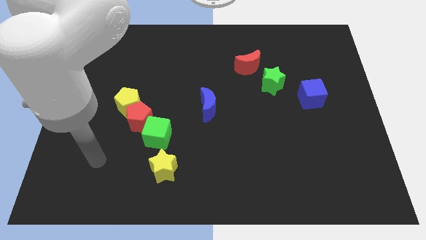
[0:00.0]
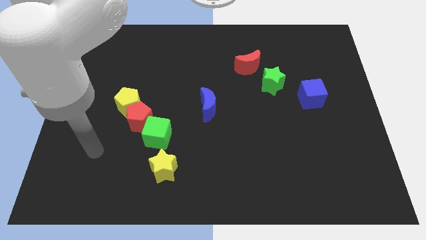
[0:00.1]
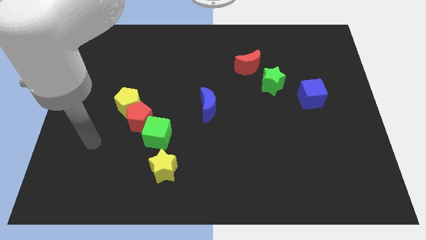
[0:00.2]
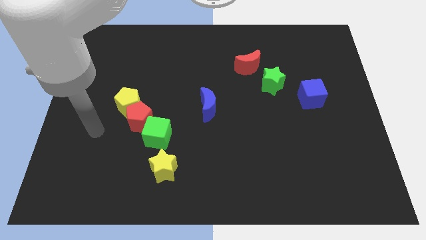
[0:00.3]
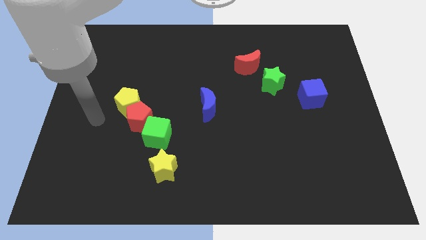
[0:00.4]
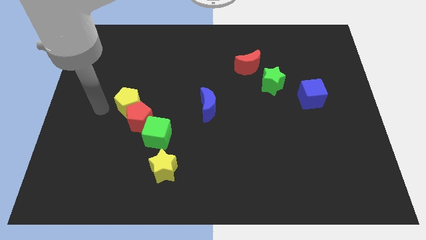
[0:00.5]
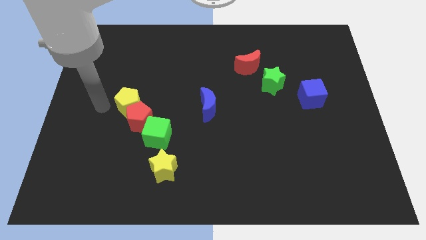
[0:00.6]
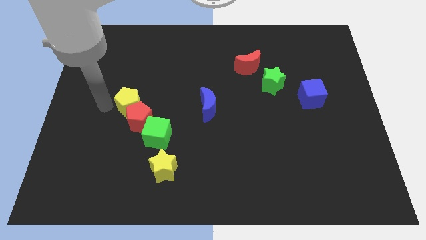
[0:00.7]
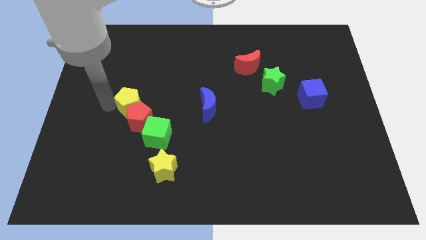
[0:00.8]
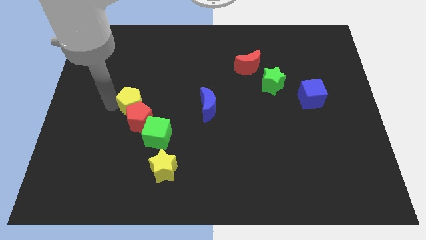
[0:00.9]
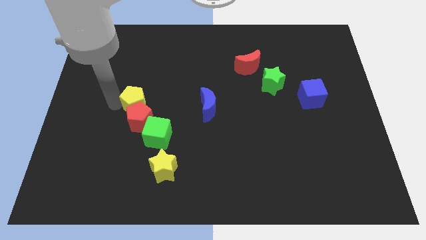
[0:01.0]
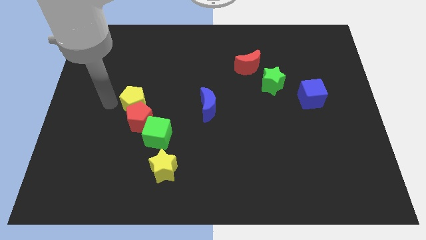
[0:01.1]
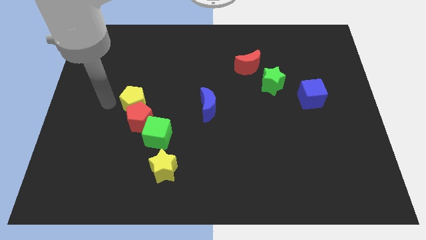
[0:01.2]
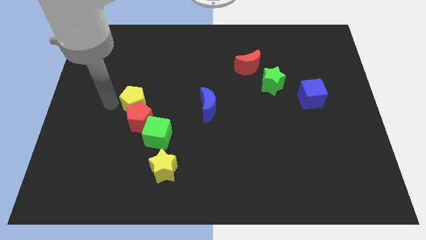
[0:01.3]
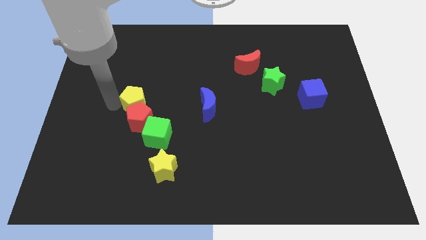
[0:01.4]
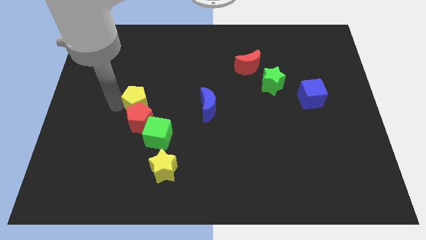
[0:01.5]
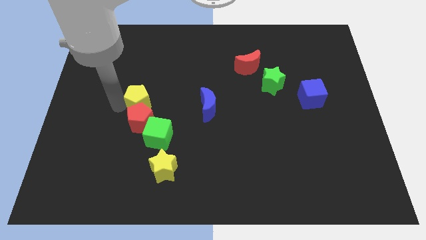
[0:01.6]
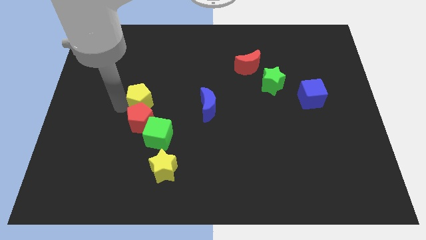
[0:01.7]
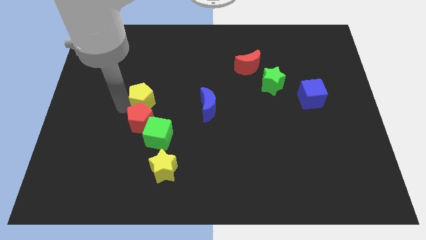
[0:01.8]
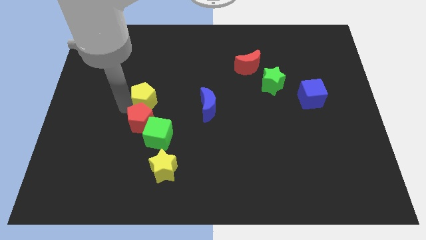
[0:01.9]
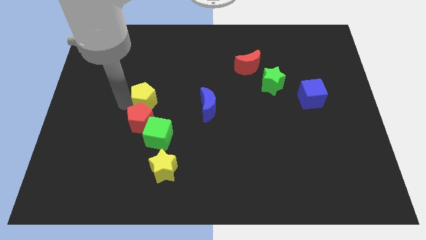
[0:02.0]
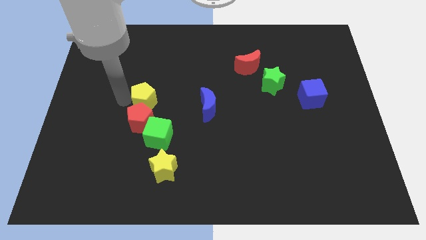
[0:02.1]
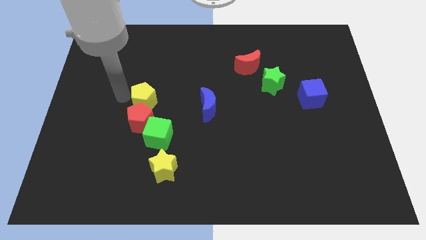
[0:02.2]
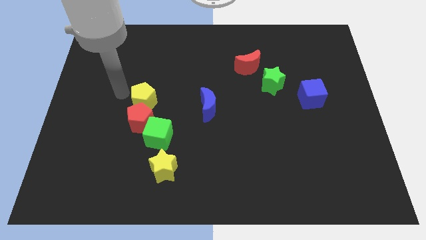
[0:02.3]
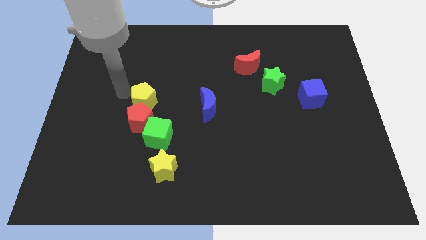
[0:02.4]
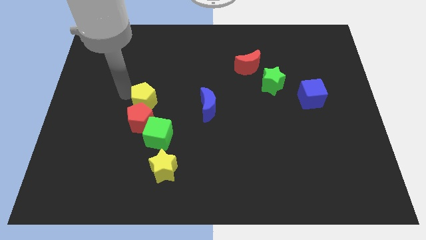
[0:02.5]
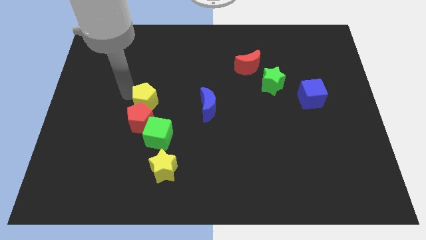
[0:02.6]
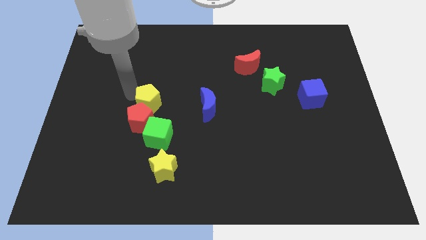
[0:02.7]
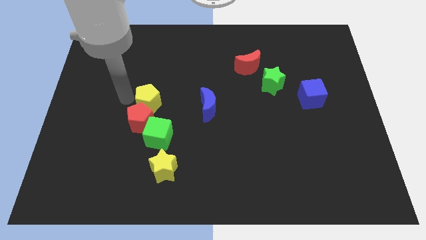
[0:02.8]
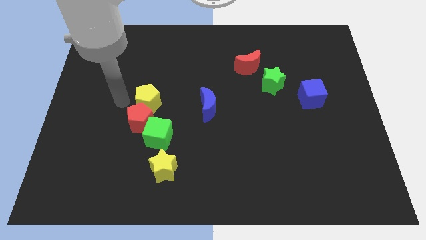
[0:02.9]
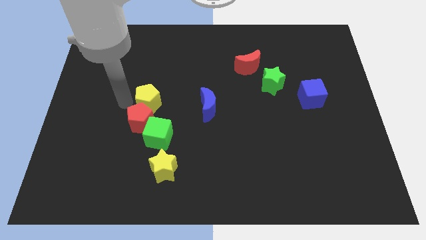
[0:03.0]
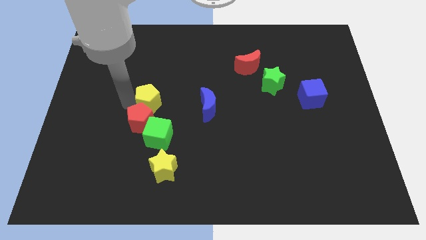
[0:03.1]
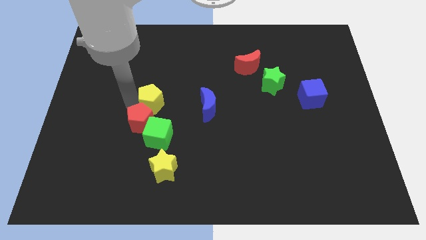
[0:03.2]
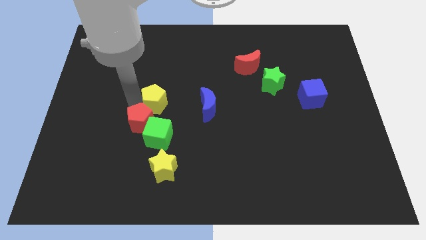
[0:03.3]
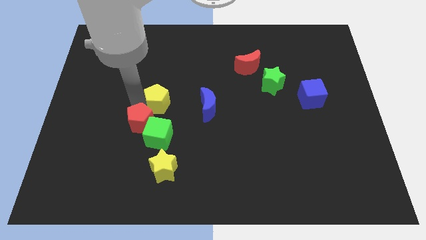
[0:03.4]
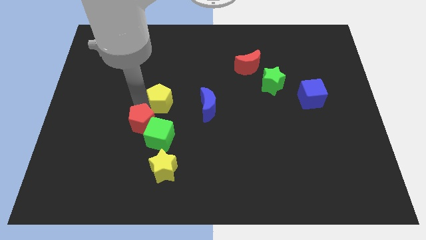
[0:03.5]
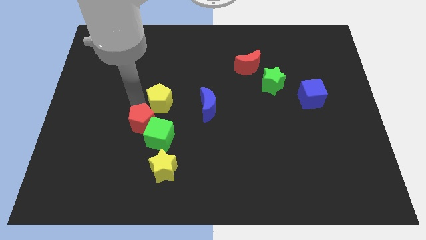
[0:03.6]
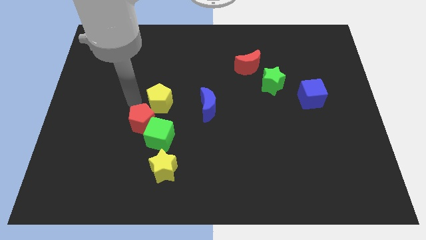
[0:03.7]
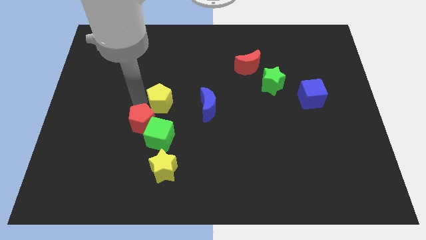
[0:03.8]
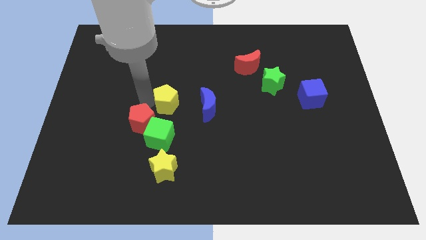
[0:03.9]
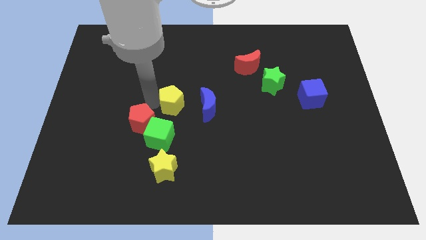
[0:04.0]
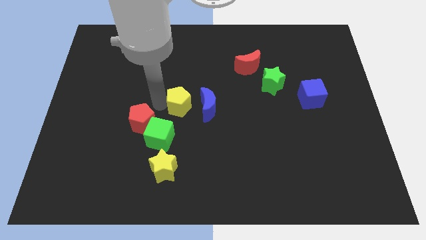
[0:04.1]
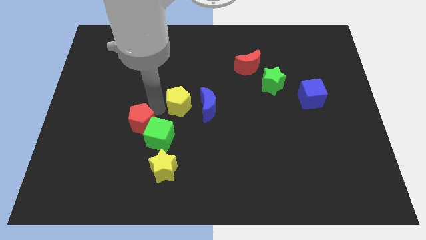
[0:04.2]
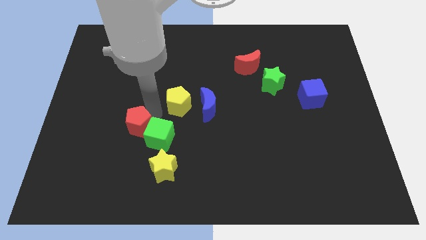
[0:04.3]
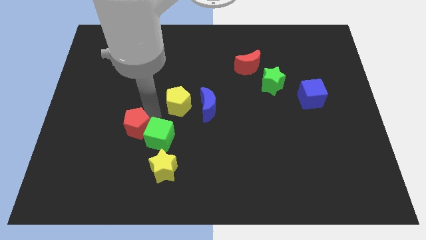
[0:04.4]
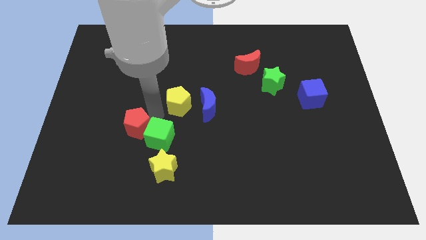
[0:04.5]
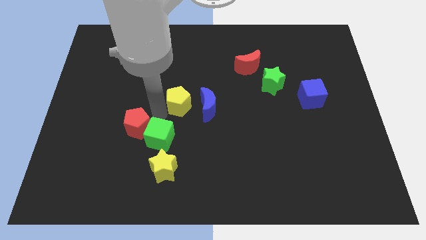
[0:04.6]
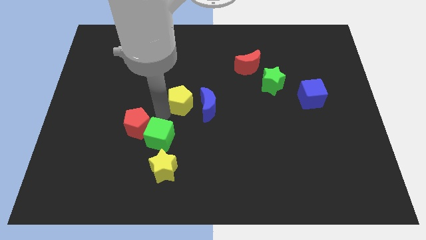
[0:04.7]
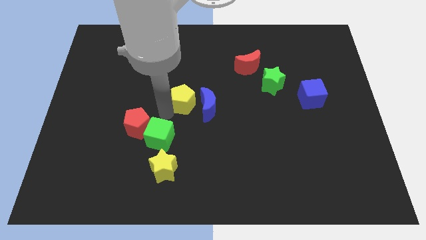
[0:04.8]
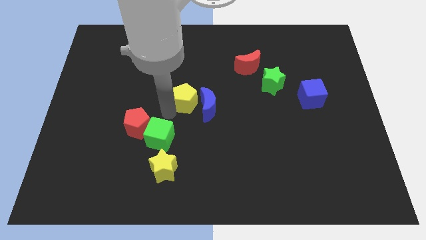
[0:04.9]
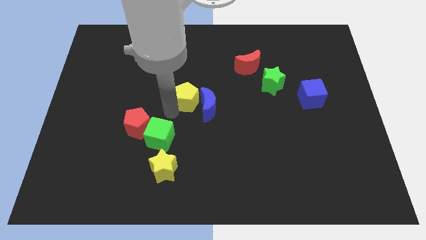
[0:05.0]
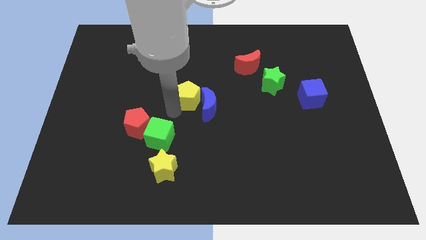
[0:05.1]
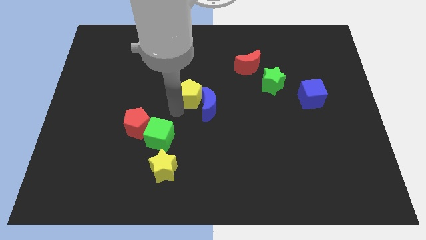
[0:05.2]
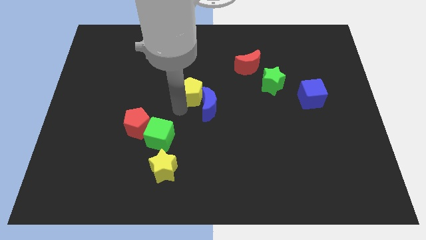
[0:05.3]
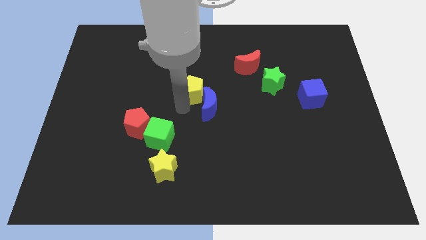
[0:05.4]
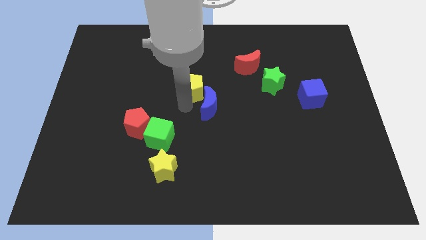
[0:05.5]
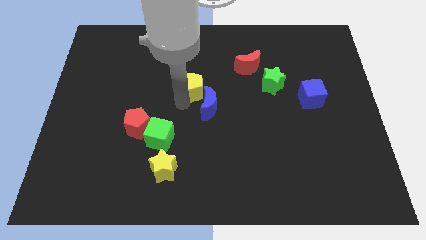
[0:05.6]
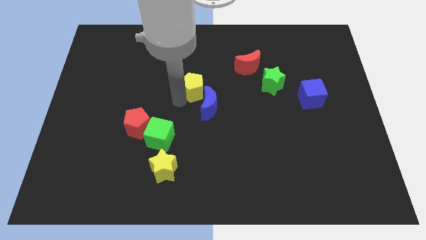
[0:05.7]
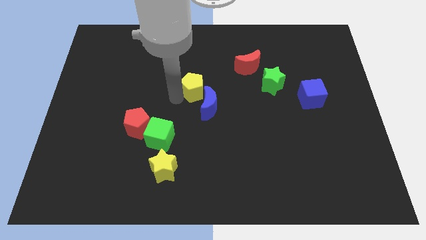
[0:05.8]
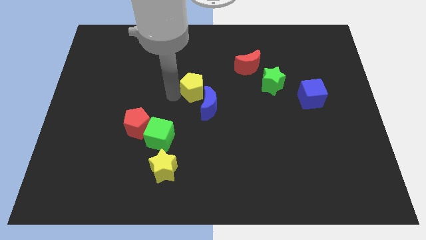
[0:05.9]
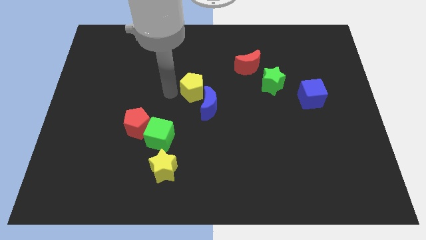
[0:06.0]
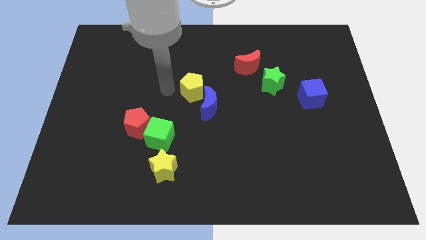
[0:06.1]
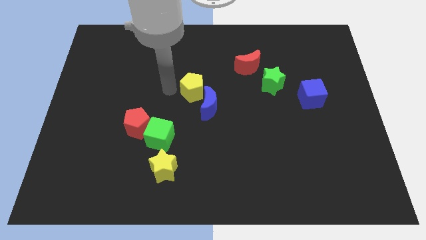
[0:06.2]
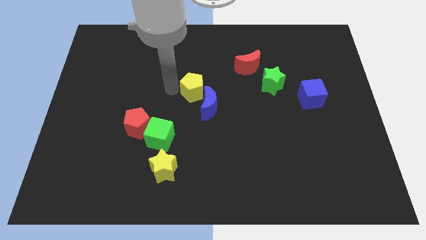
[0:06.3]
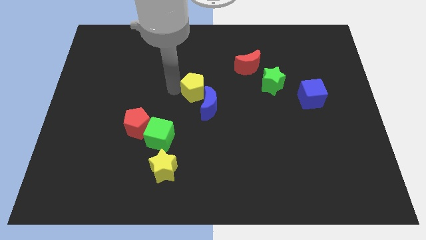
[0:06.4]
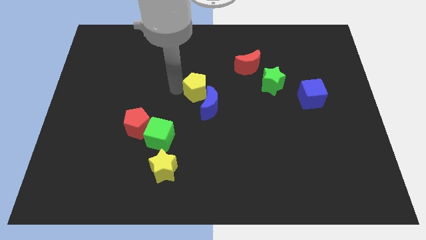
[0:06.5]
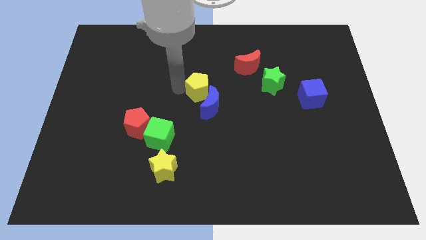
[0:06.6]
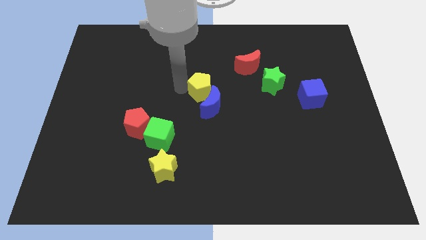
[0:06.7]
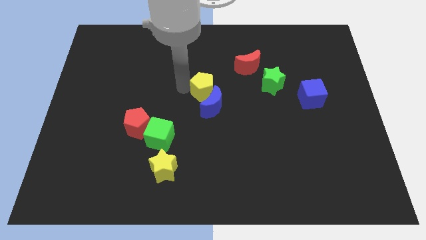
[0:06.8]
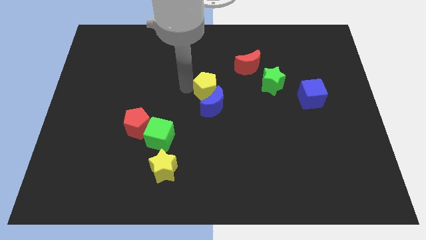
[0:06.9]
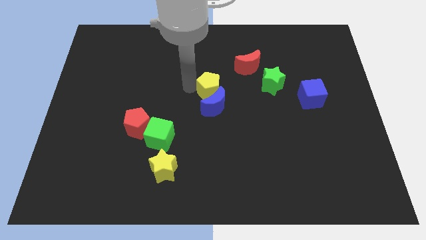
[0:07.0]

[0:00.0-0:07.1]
put the yellow pentagon to the top right side of the blue moon

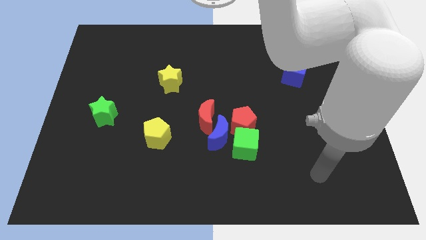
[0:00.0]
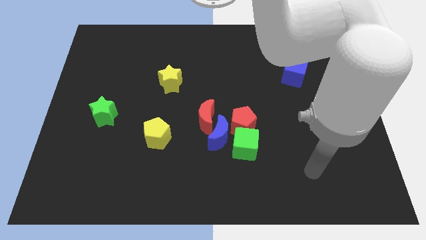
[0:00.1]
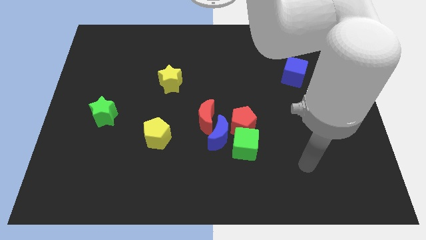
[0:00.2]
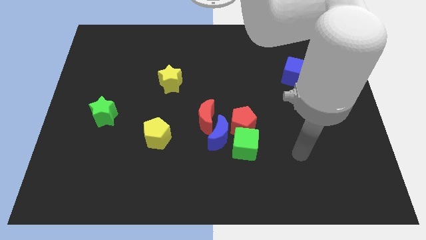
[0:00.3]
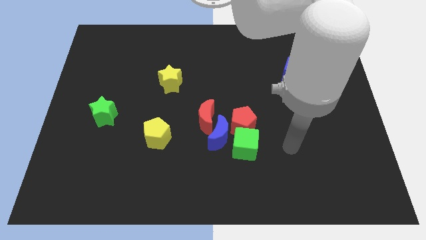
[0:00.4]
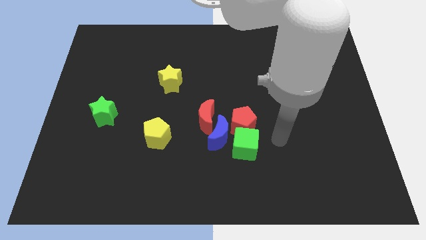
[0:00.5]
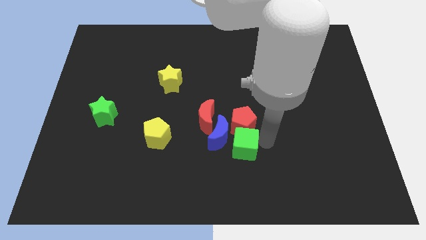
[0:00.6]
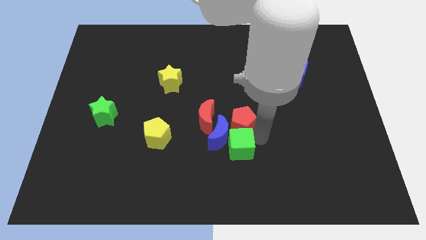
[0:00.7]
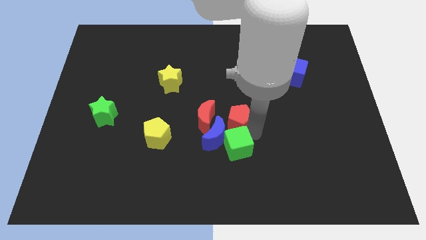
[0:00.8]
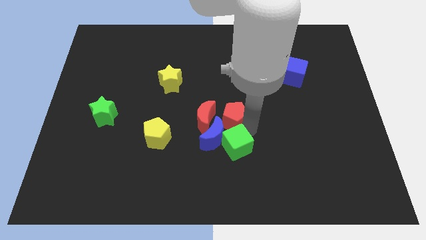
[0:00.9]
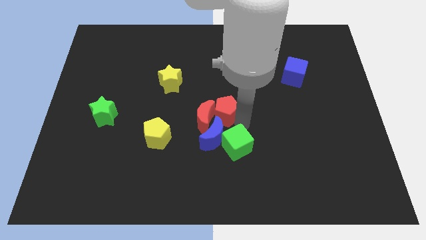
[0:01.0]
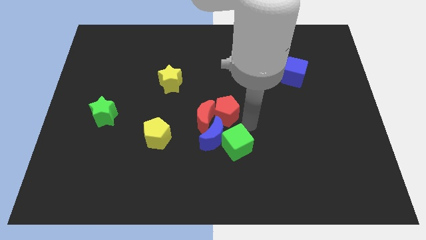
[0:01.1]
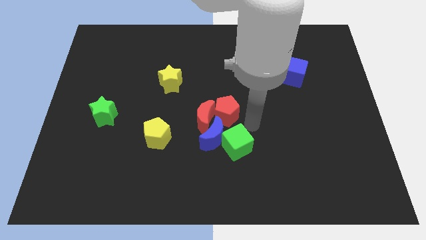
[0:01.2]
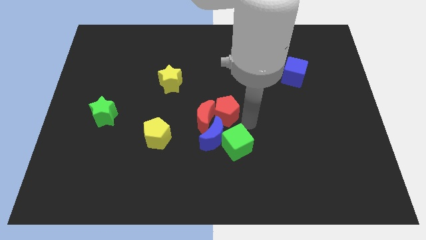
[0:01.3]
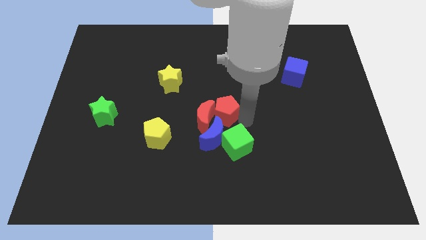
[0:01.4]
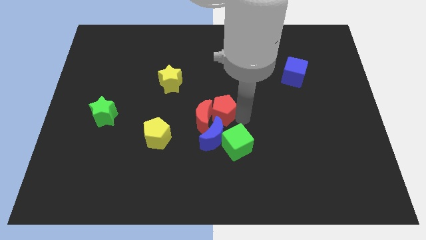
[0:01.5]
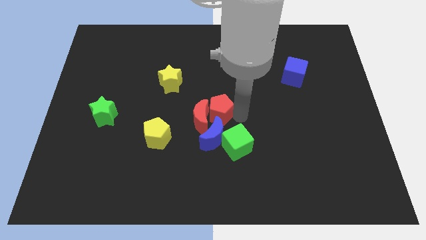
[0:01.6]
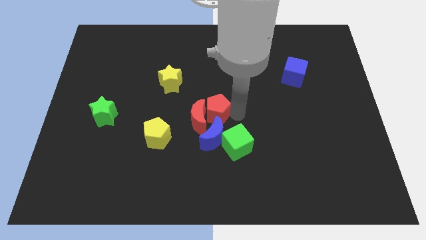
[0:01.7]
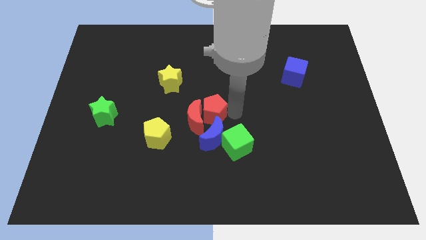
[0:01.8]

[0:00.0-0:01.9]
slide the red pentagon to the top left of the blue moon
